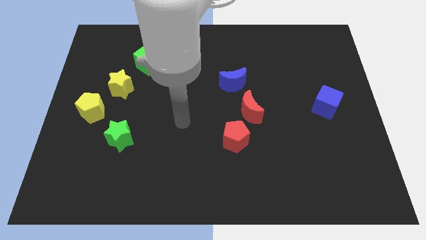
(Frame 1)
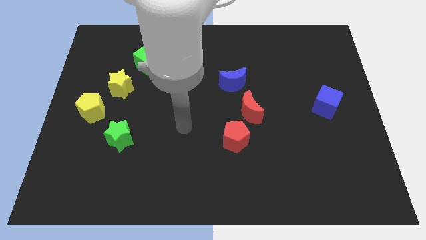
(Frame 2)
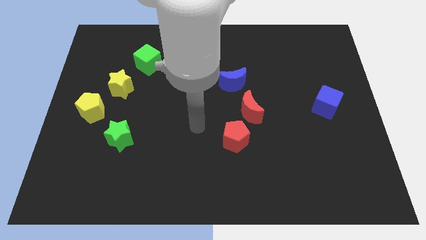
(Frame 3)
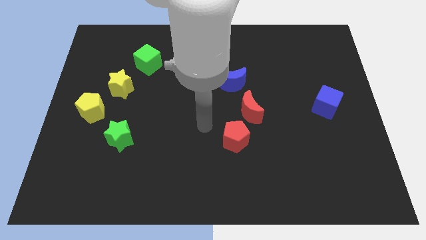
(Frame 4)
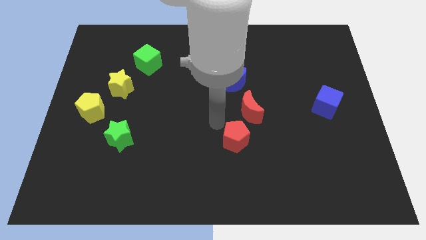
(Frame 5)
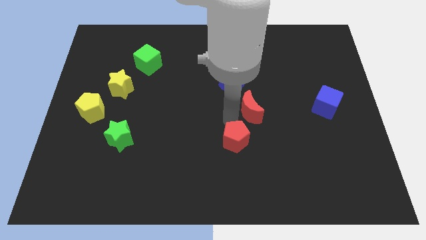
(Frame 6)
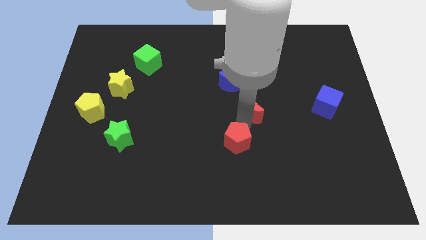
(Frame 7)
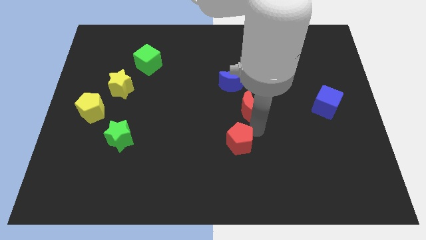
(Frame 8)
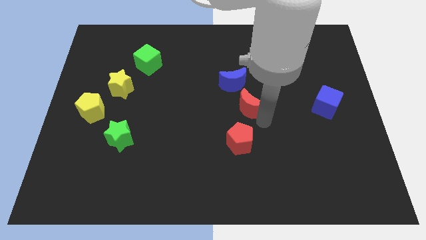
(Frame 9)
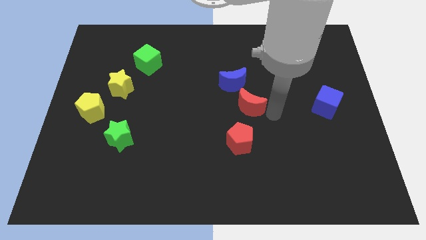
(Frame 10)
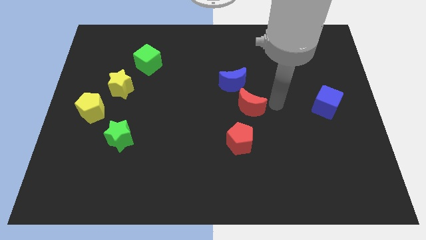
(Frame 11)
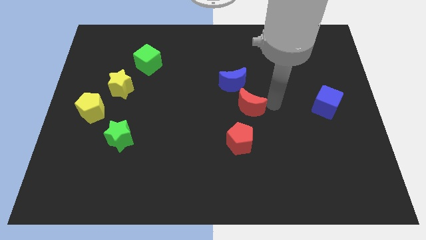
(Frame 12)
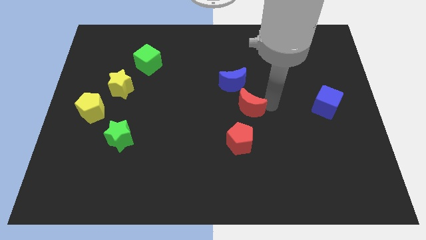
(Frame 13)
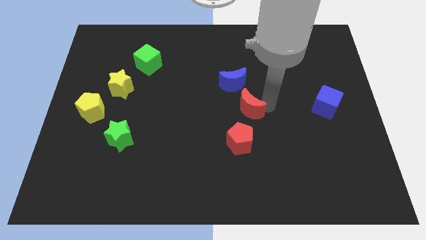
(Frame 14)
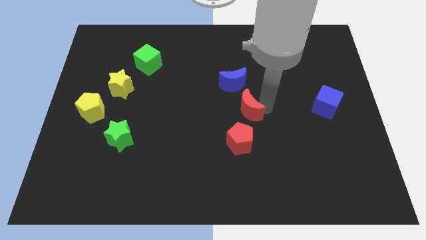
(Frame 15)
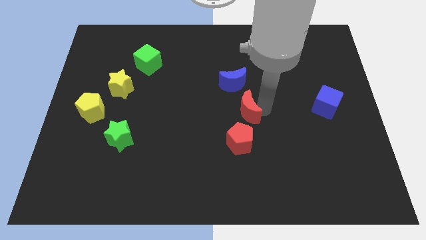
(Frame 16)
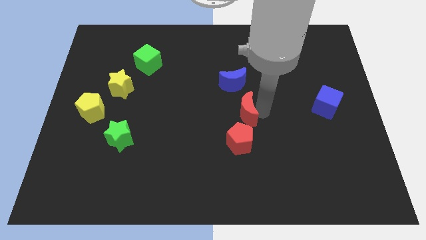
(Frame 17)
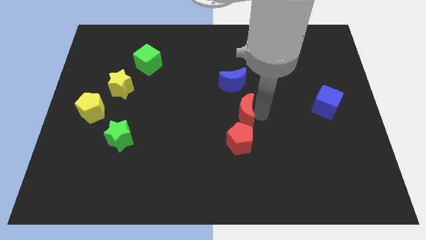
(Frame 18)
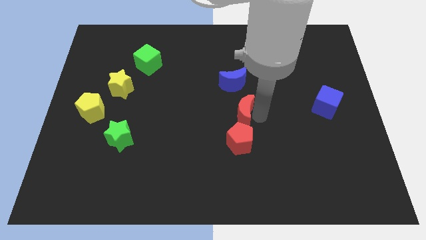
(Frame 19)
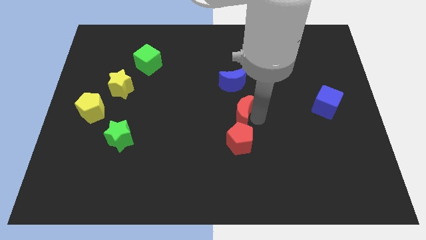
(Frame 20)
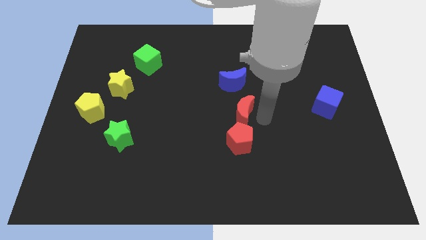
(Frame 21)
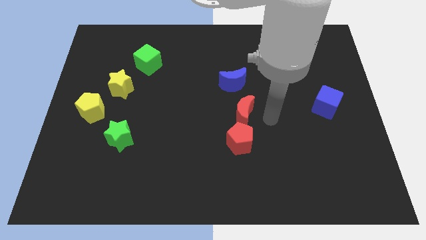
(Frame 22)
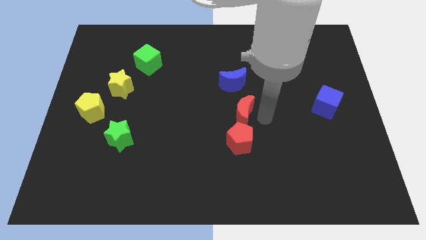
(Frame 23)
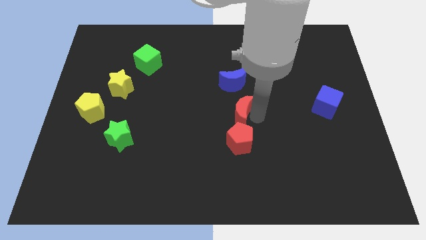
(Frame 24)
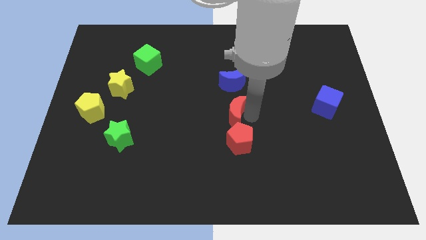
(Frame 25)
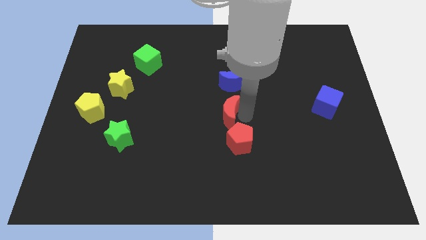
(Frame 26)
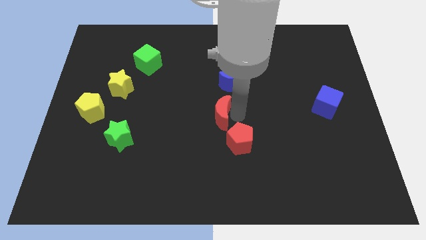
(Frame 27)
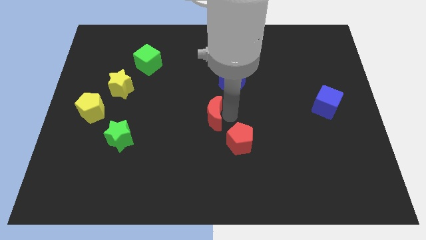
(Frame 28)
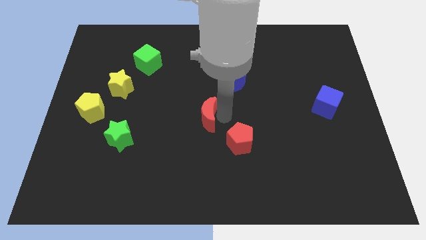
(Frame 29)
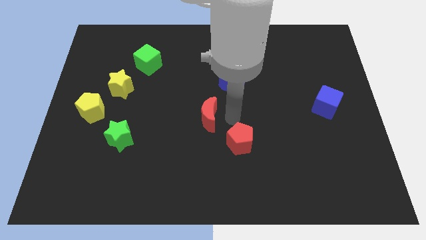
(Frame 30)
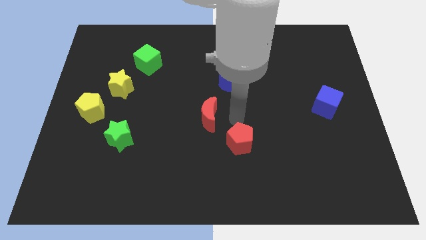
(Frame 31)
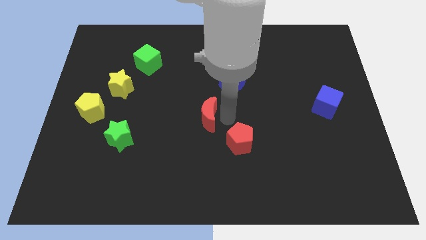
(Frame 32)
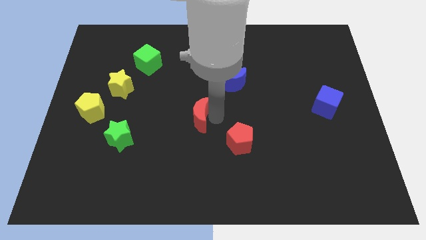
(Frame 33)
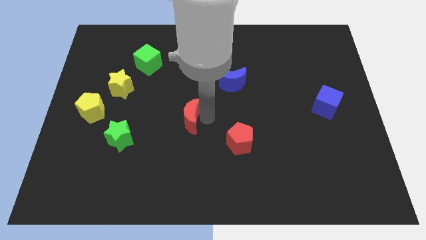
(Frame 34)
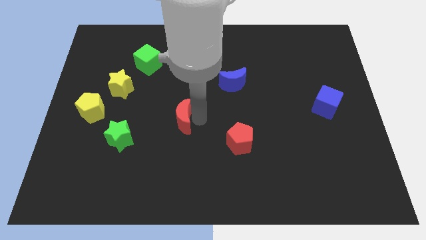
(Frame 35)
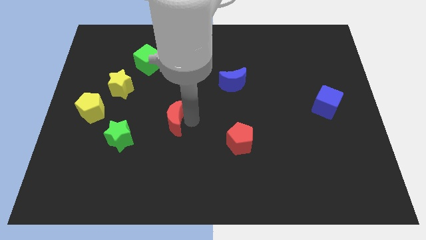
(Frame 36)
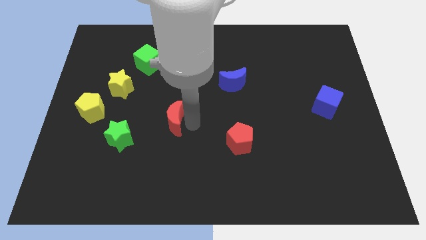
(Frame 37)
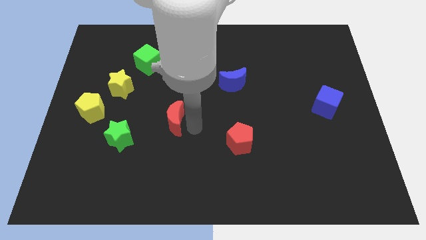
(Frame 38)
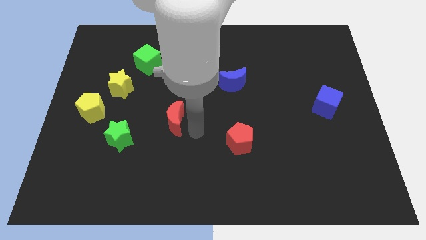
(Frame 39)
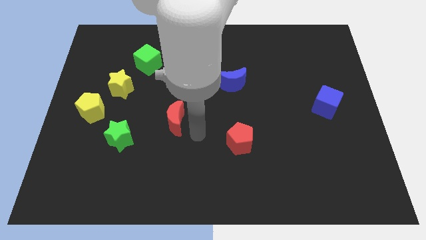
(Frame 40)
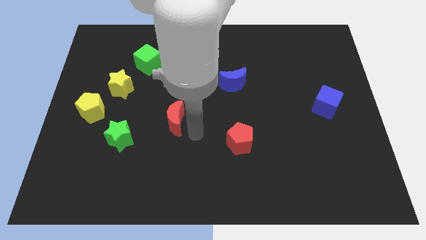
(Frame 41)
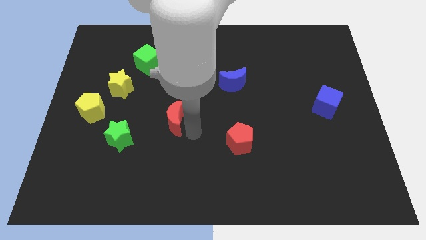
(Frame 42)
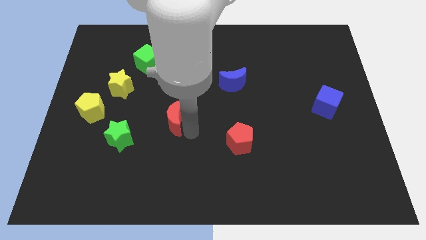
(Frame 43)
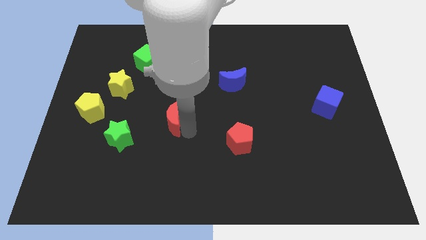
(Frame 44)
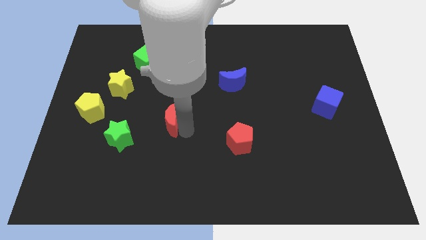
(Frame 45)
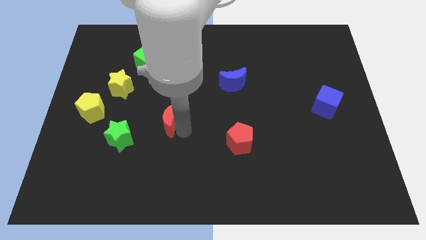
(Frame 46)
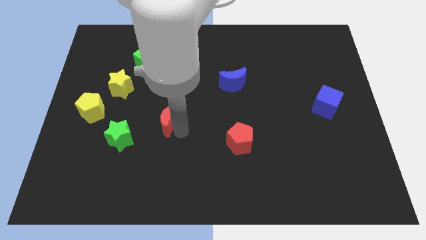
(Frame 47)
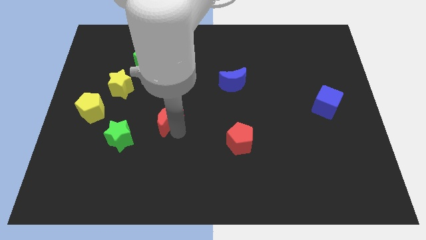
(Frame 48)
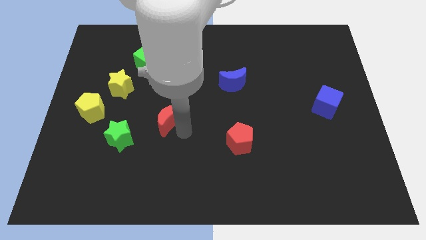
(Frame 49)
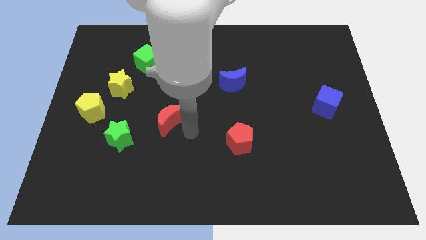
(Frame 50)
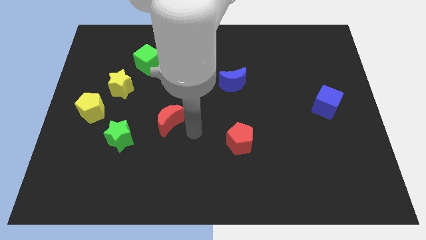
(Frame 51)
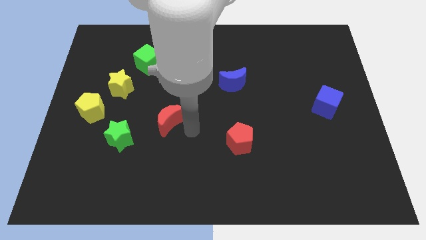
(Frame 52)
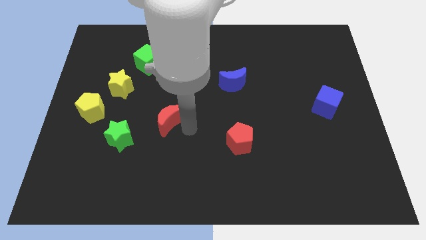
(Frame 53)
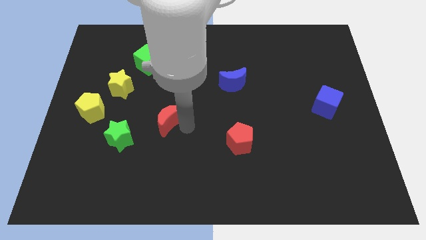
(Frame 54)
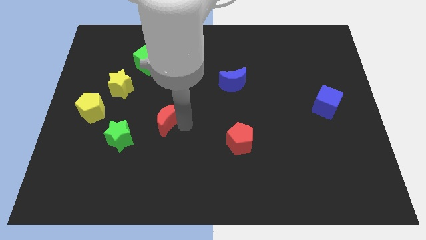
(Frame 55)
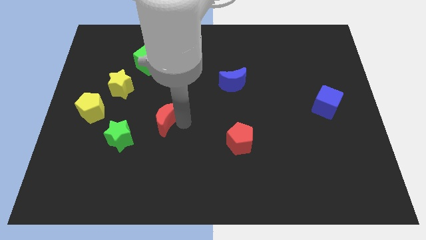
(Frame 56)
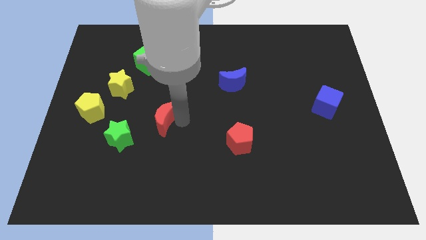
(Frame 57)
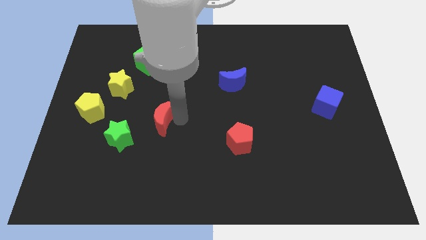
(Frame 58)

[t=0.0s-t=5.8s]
move the red moon to the left

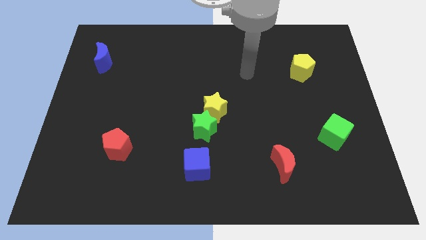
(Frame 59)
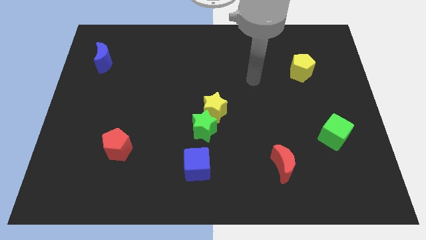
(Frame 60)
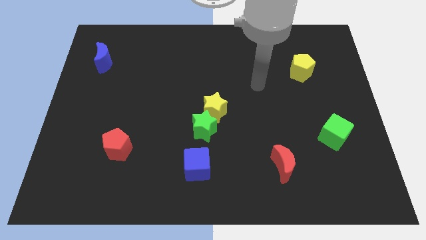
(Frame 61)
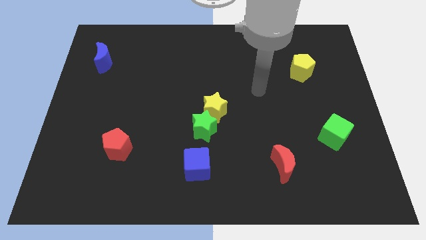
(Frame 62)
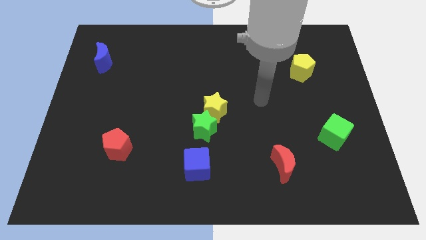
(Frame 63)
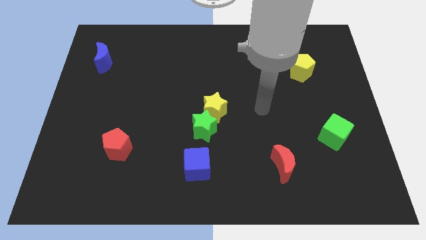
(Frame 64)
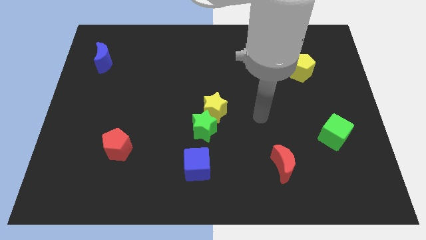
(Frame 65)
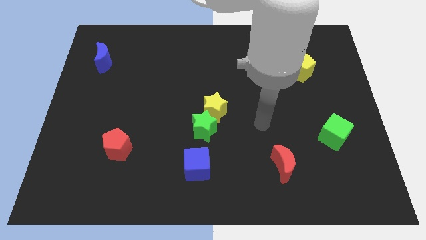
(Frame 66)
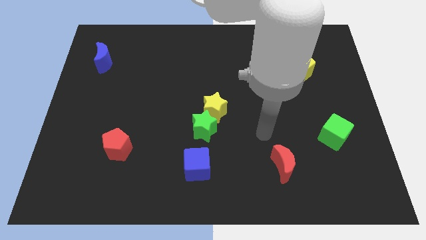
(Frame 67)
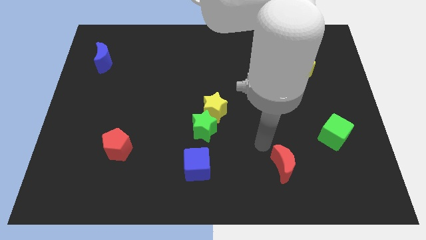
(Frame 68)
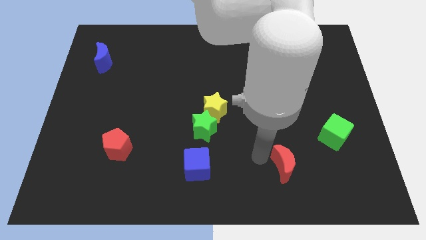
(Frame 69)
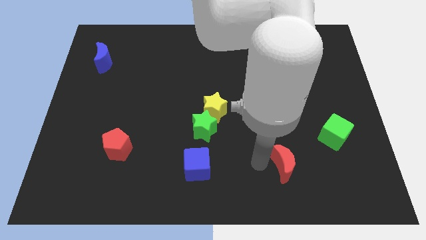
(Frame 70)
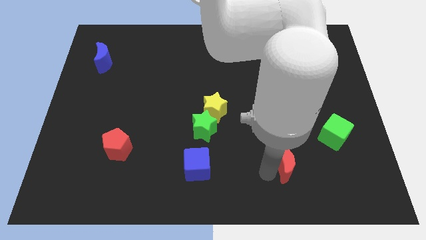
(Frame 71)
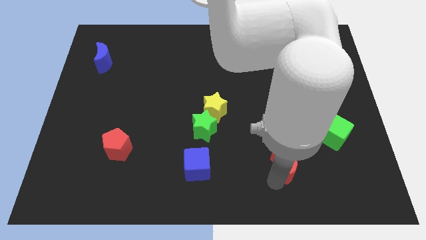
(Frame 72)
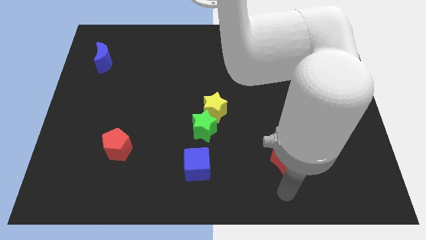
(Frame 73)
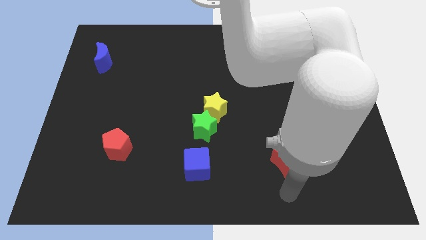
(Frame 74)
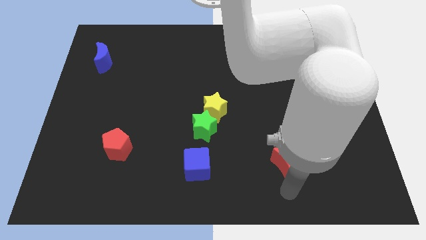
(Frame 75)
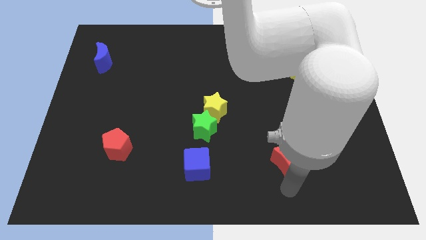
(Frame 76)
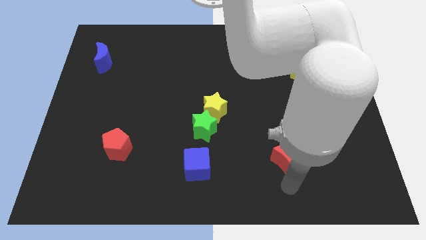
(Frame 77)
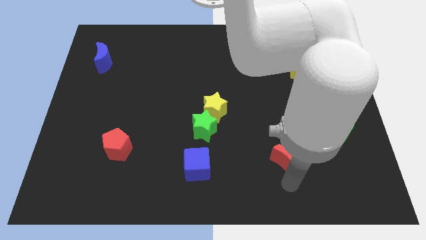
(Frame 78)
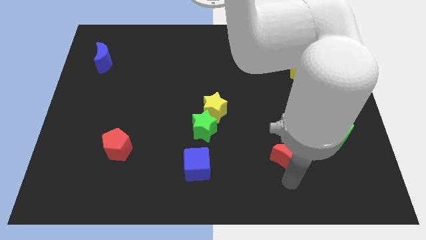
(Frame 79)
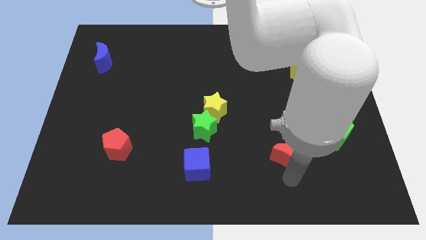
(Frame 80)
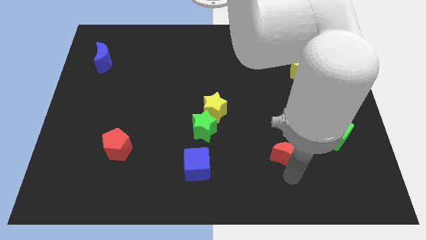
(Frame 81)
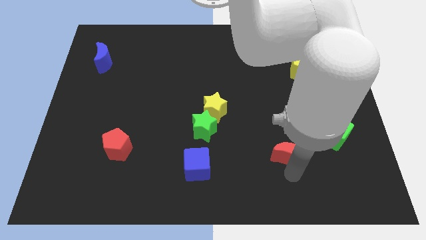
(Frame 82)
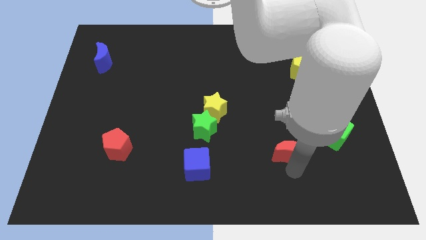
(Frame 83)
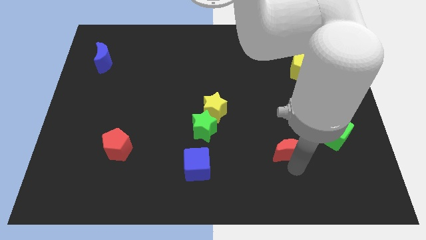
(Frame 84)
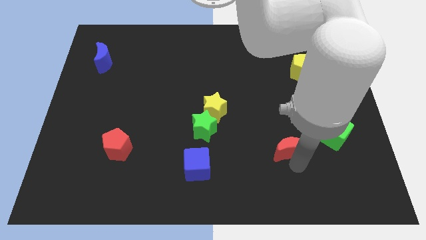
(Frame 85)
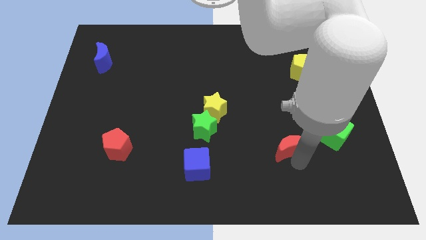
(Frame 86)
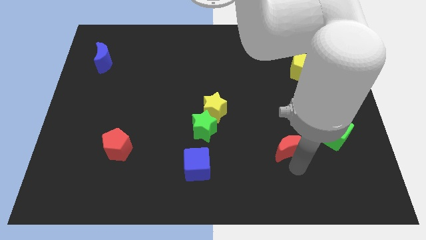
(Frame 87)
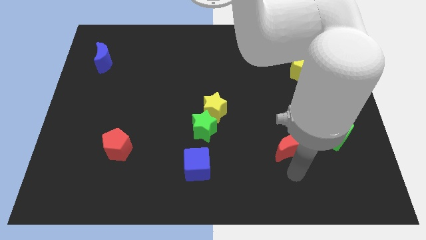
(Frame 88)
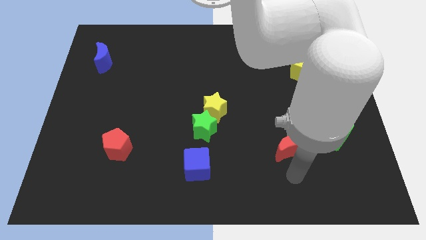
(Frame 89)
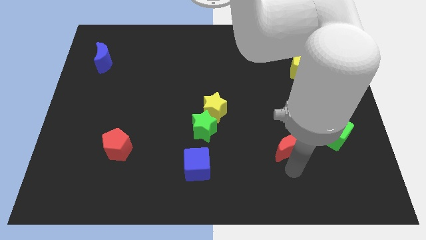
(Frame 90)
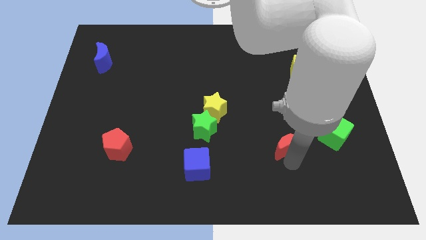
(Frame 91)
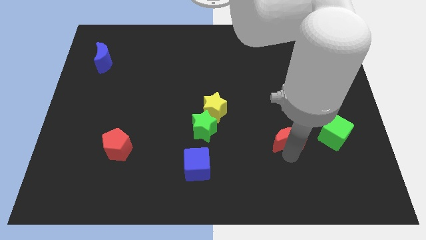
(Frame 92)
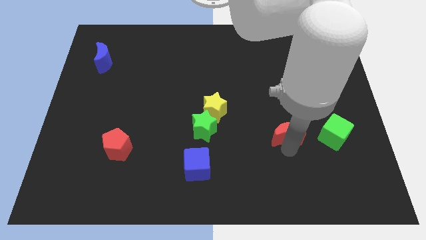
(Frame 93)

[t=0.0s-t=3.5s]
slide the red moon up a bit
